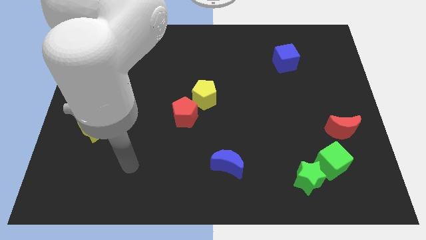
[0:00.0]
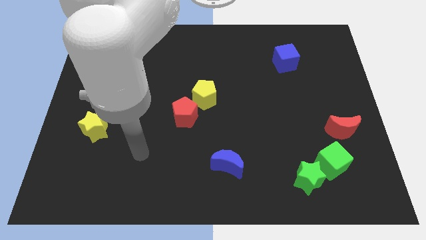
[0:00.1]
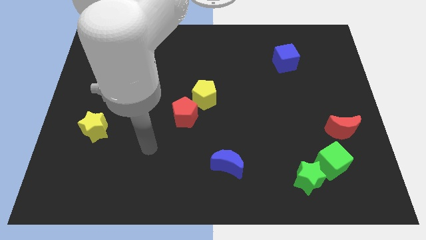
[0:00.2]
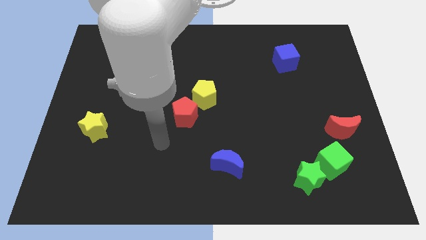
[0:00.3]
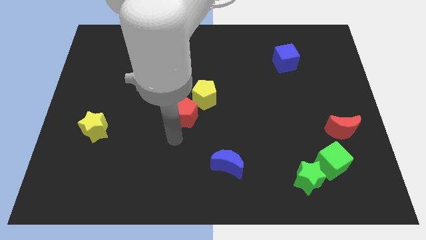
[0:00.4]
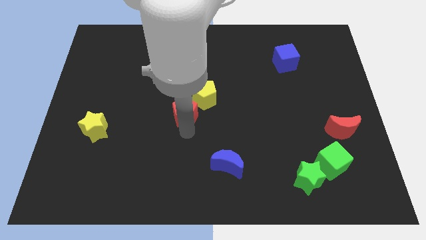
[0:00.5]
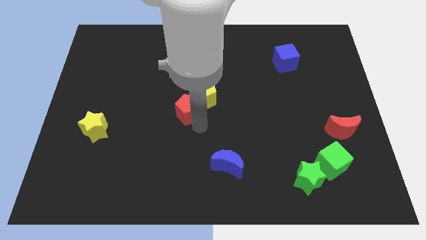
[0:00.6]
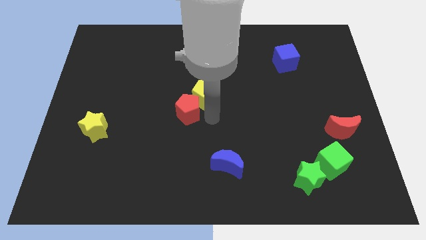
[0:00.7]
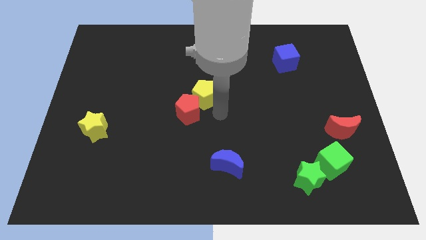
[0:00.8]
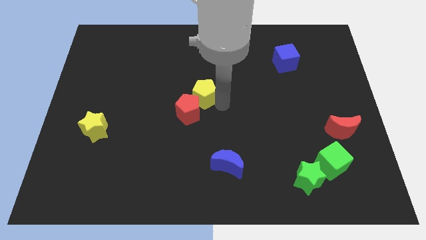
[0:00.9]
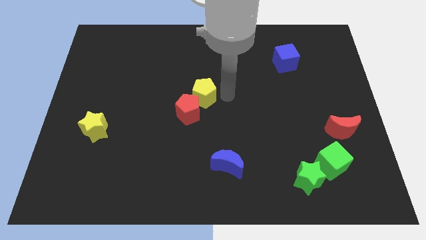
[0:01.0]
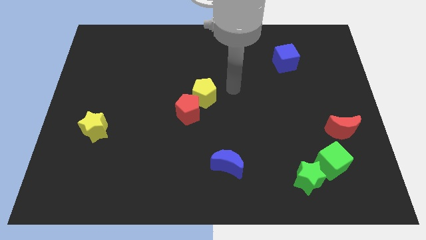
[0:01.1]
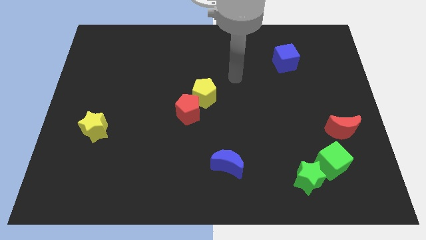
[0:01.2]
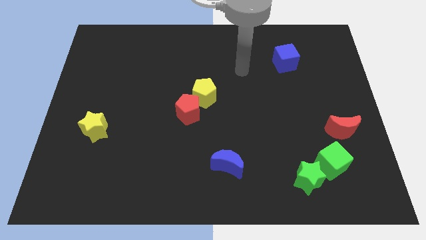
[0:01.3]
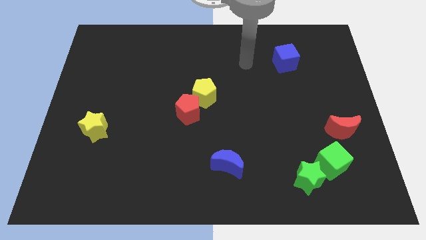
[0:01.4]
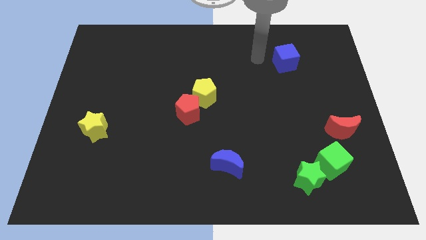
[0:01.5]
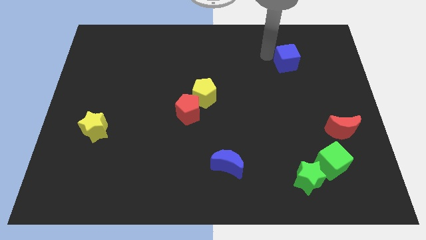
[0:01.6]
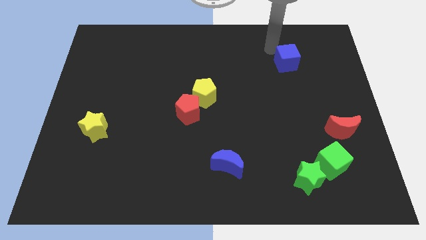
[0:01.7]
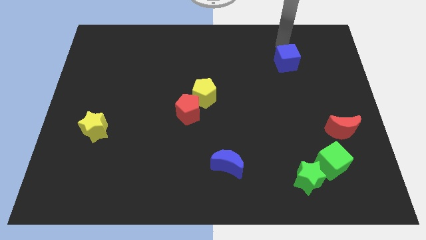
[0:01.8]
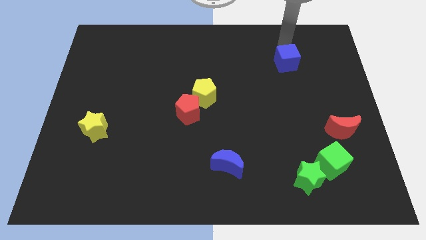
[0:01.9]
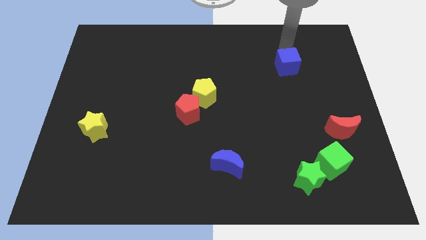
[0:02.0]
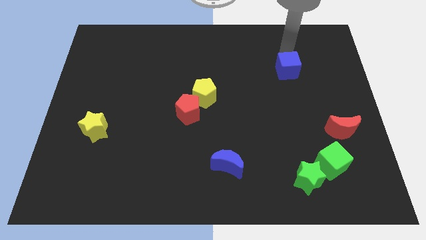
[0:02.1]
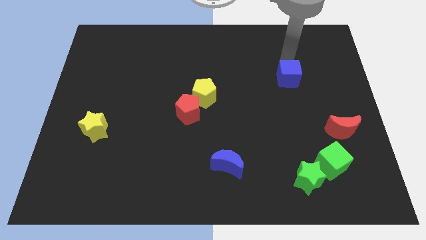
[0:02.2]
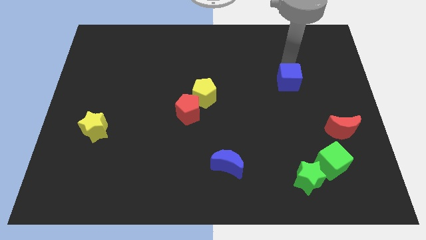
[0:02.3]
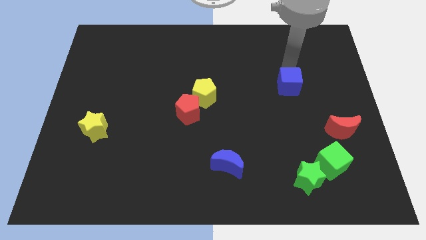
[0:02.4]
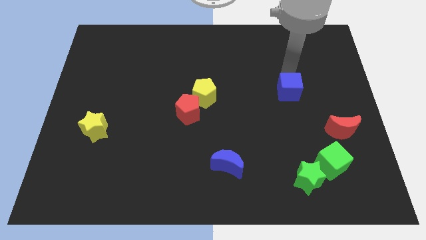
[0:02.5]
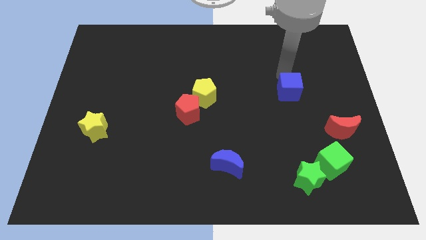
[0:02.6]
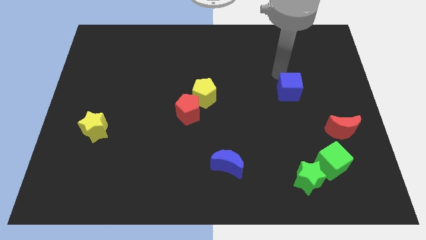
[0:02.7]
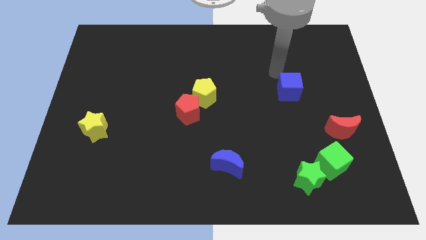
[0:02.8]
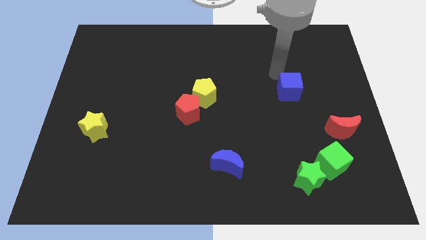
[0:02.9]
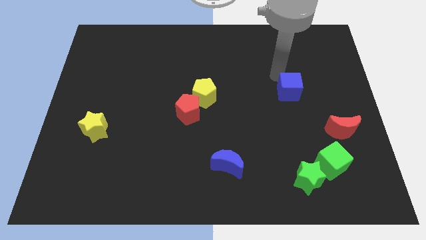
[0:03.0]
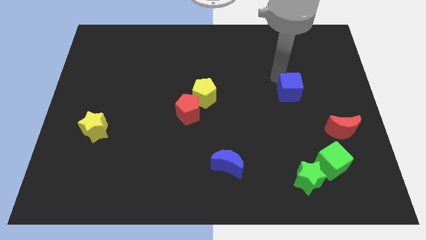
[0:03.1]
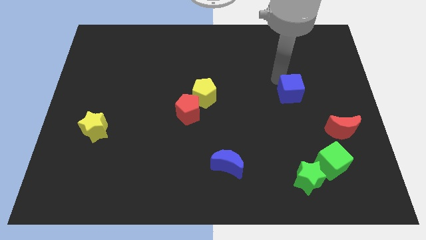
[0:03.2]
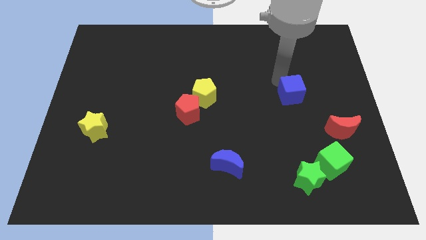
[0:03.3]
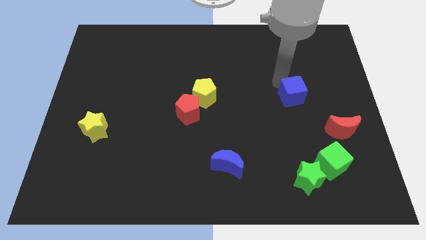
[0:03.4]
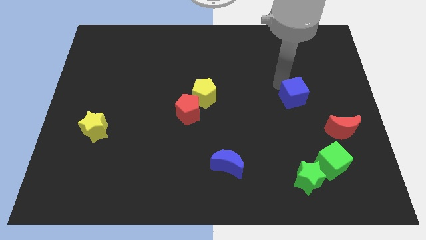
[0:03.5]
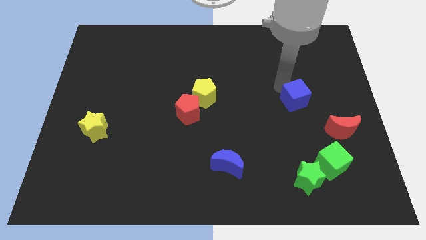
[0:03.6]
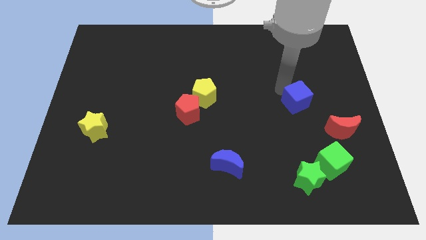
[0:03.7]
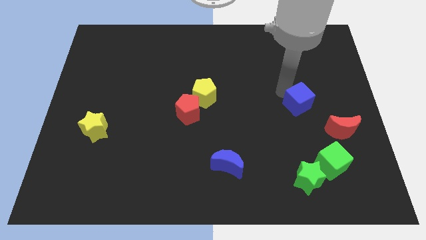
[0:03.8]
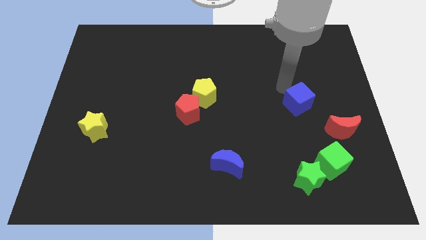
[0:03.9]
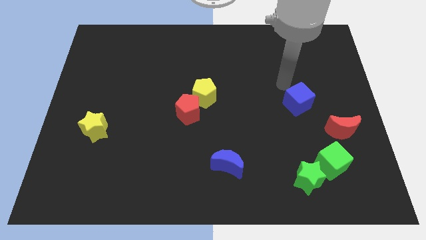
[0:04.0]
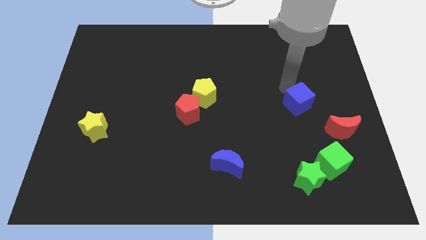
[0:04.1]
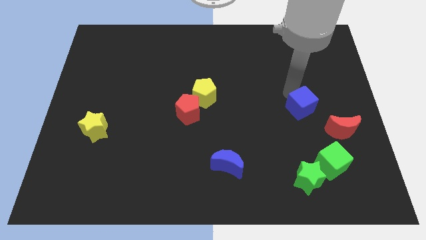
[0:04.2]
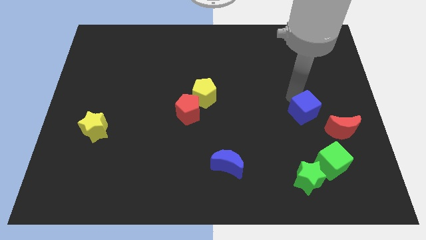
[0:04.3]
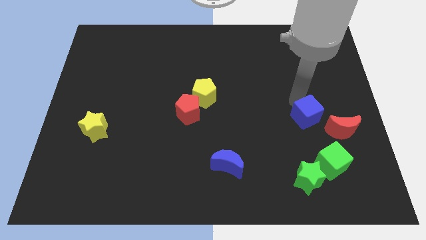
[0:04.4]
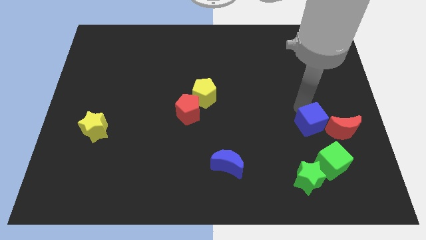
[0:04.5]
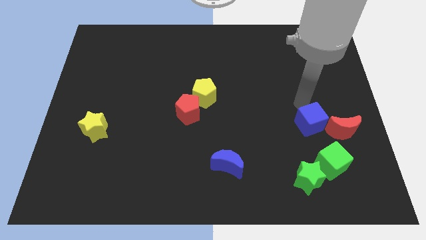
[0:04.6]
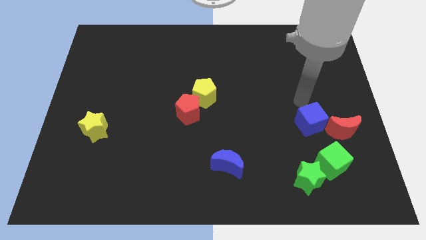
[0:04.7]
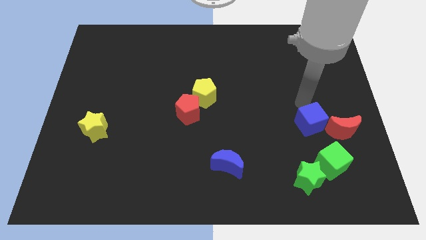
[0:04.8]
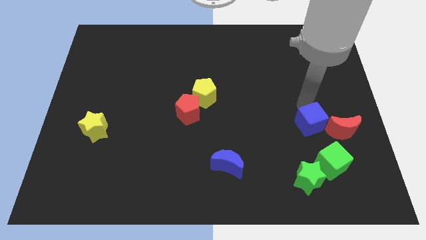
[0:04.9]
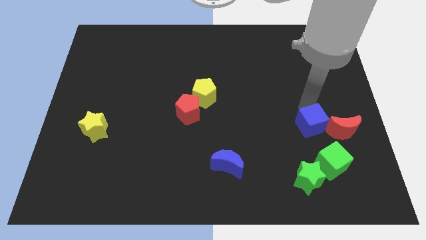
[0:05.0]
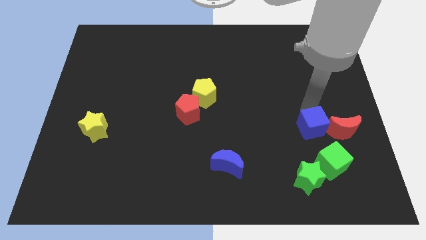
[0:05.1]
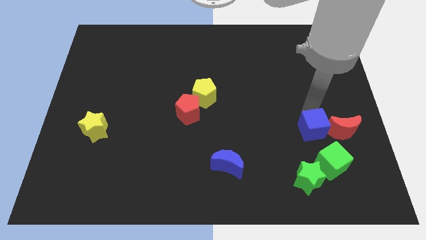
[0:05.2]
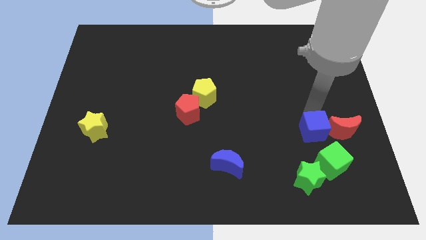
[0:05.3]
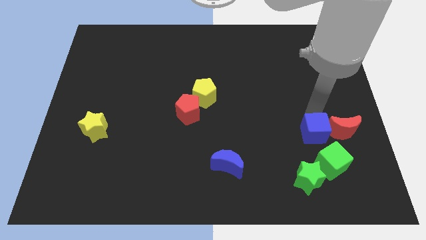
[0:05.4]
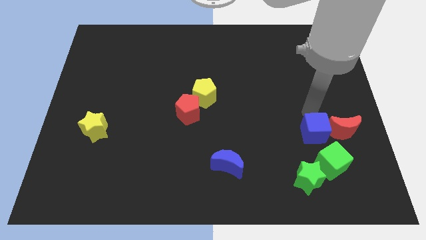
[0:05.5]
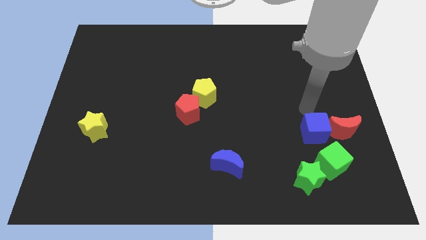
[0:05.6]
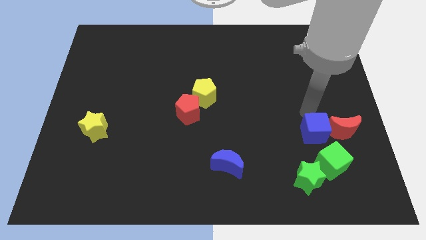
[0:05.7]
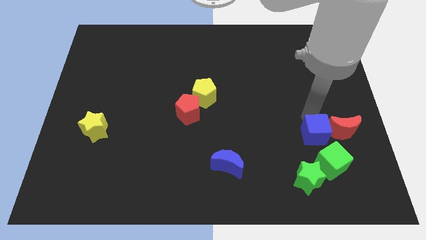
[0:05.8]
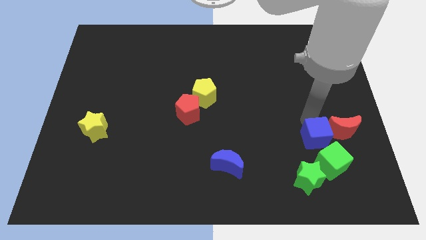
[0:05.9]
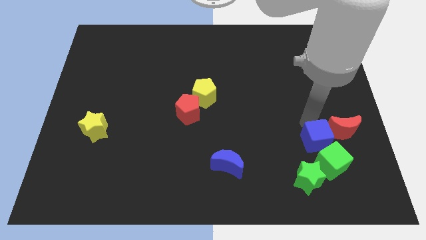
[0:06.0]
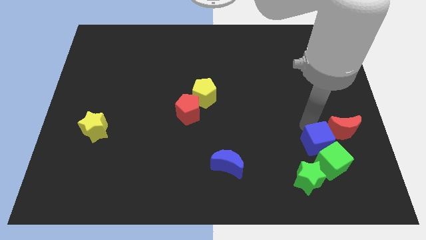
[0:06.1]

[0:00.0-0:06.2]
push the blue cube to the green cube
